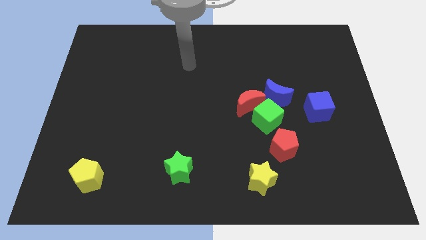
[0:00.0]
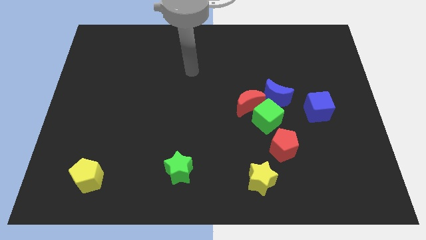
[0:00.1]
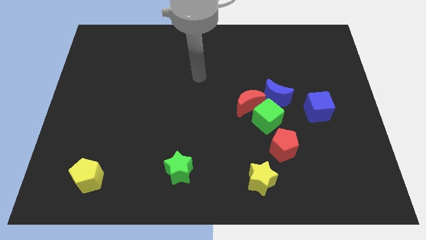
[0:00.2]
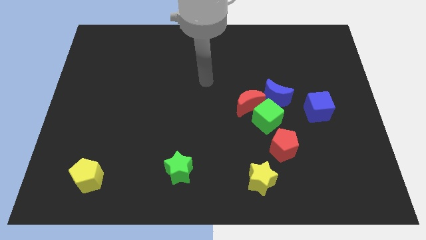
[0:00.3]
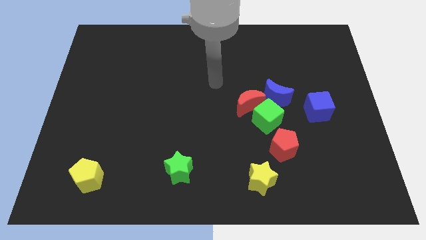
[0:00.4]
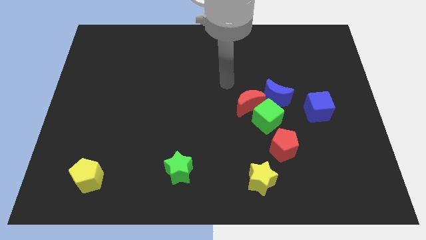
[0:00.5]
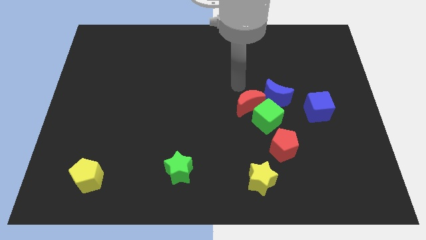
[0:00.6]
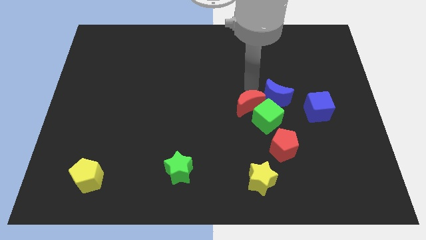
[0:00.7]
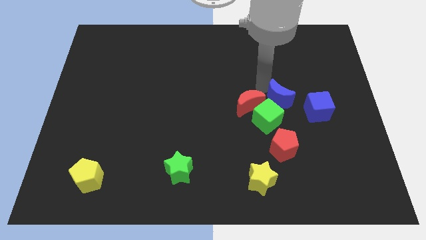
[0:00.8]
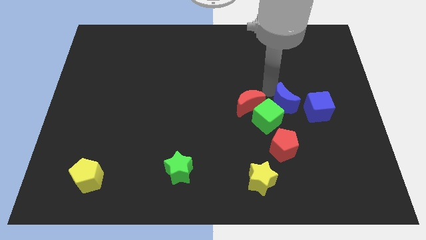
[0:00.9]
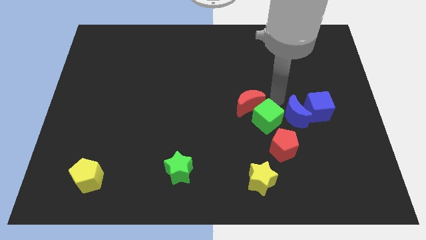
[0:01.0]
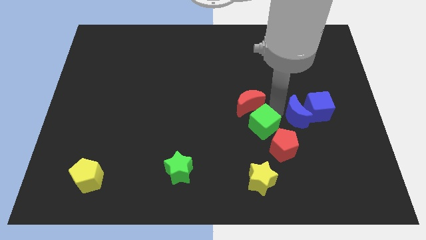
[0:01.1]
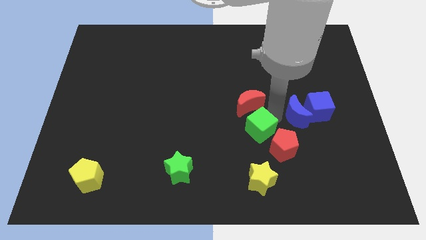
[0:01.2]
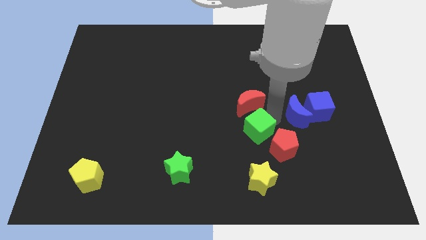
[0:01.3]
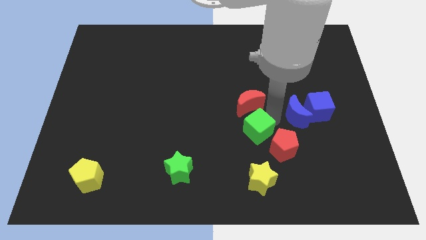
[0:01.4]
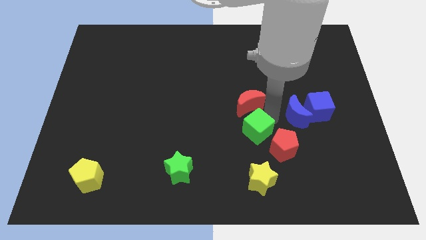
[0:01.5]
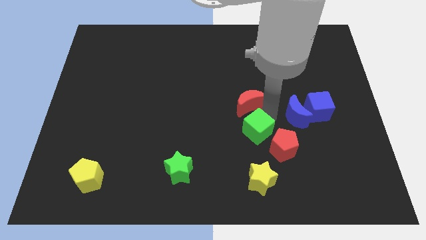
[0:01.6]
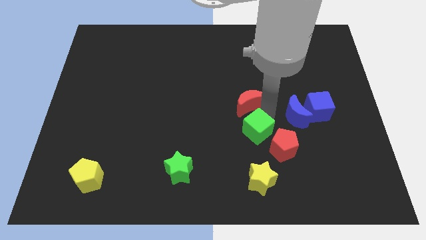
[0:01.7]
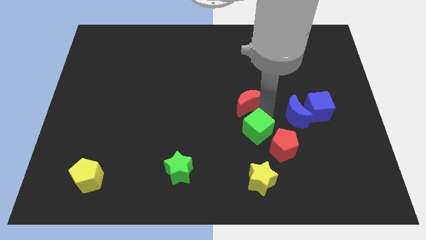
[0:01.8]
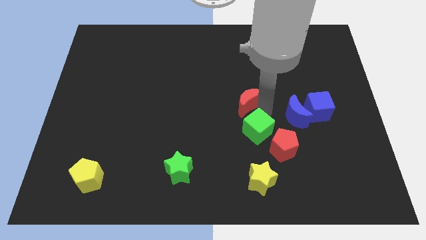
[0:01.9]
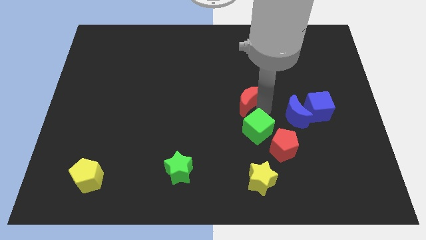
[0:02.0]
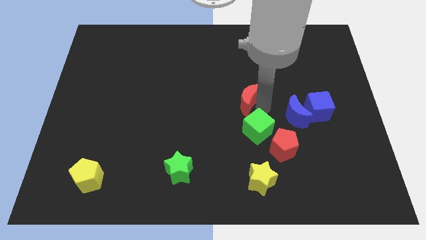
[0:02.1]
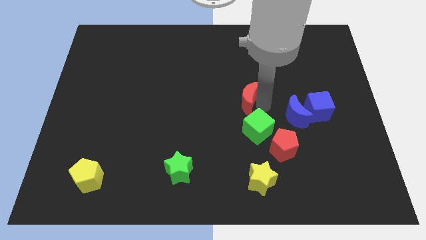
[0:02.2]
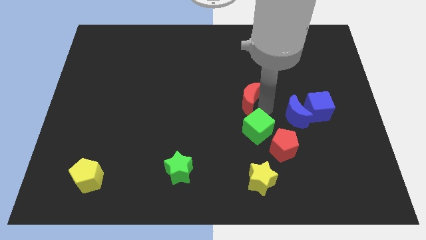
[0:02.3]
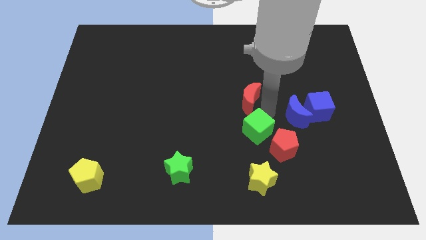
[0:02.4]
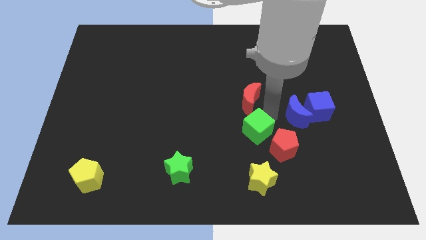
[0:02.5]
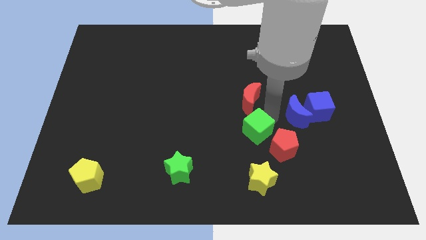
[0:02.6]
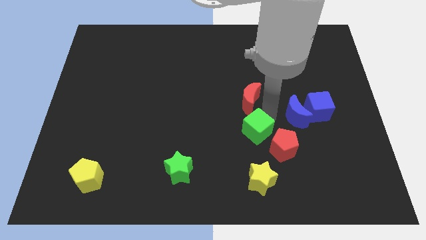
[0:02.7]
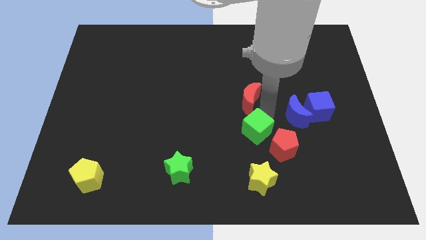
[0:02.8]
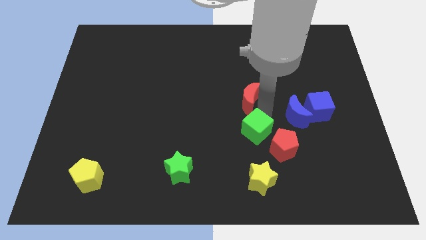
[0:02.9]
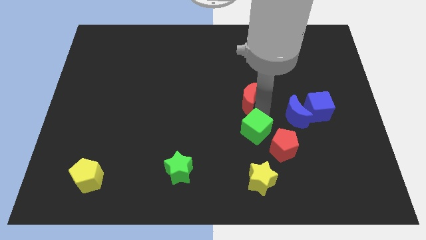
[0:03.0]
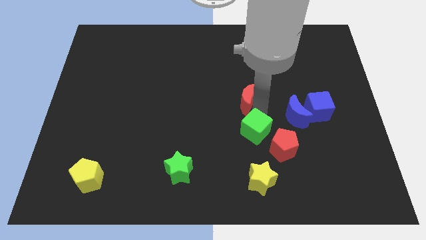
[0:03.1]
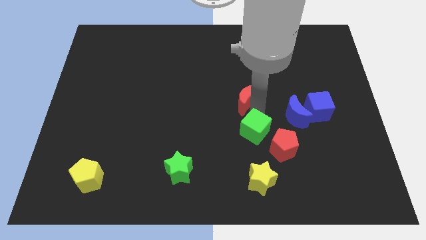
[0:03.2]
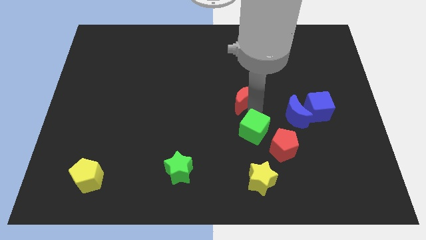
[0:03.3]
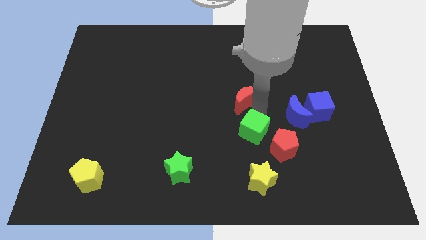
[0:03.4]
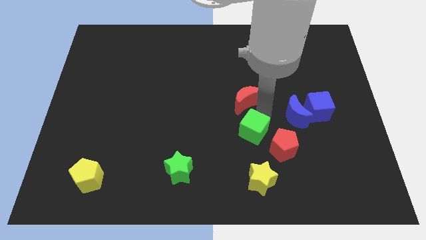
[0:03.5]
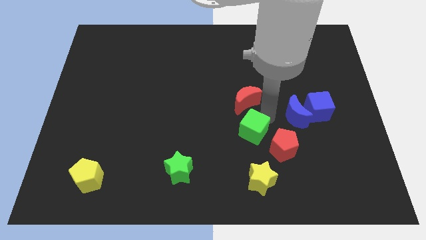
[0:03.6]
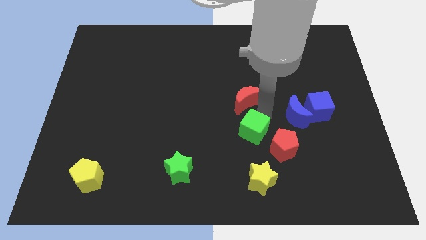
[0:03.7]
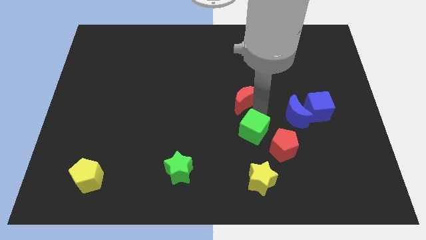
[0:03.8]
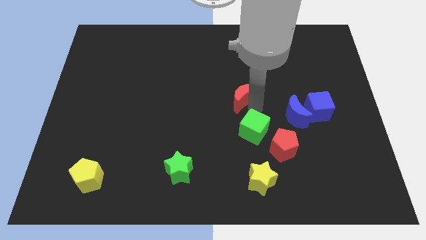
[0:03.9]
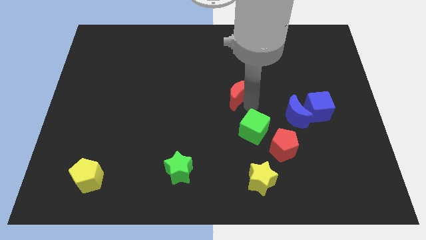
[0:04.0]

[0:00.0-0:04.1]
separate the red moon from the green cube and blue moon

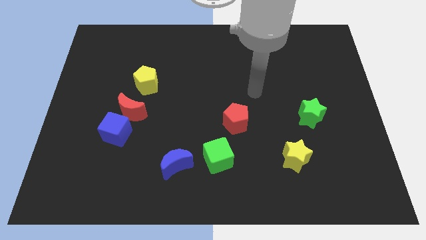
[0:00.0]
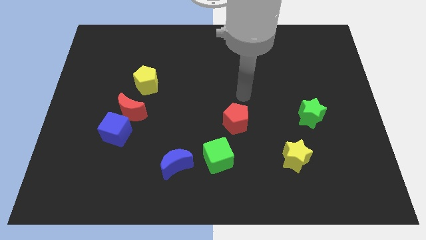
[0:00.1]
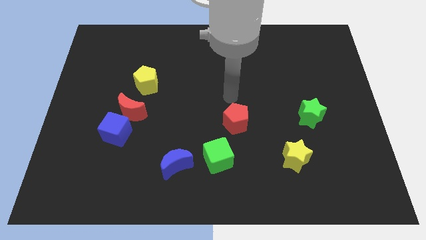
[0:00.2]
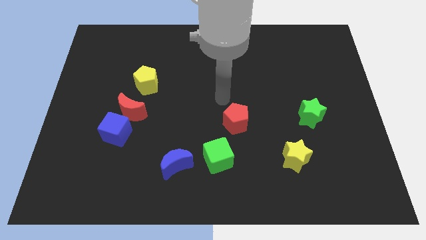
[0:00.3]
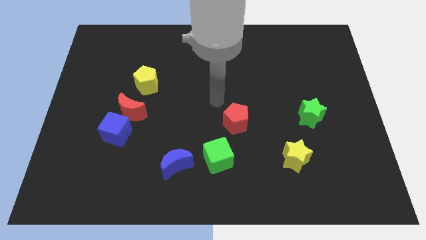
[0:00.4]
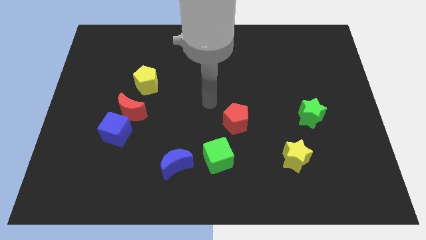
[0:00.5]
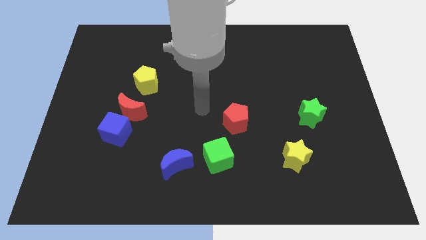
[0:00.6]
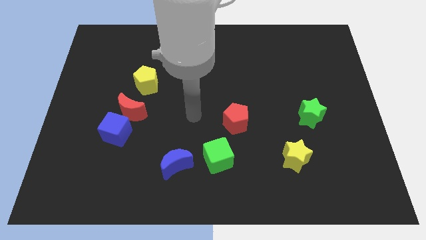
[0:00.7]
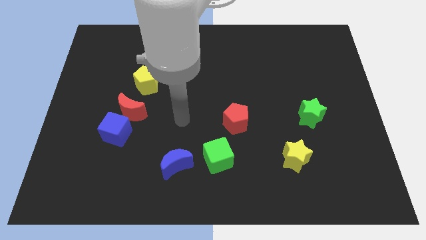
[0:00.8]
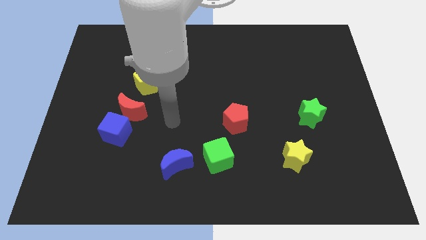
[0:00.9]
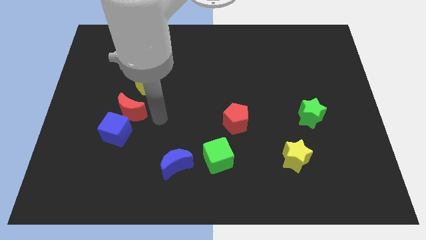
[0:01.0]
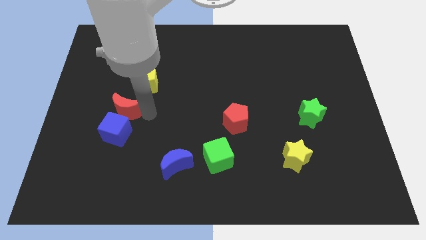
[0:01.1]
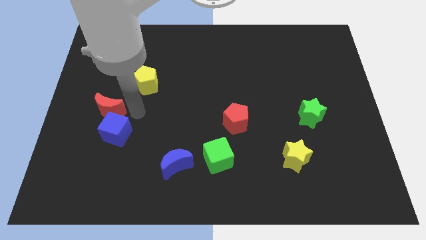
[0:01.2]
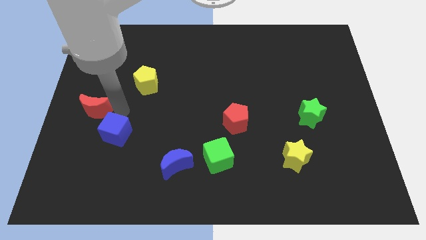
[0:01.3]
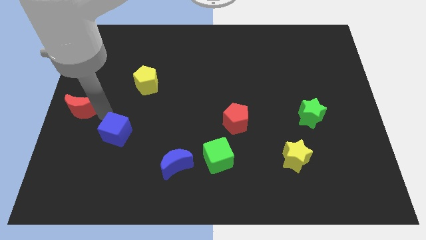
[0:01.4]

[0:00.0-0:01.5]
move the blue cube away from the red moon

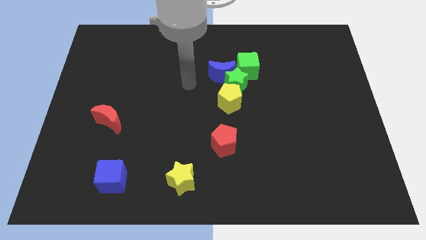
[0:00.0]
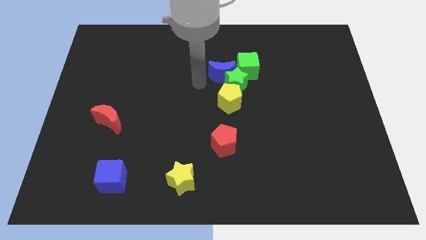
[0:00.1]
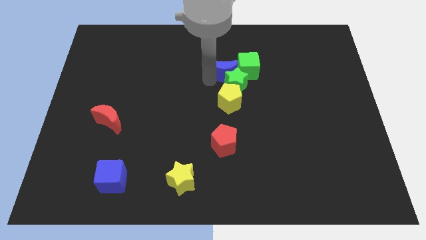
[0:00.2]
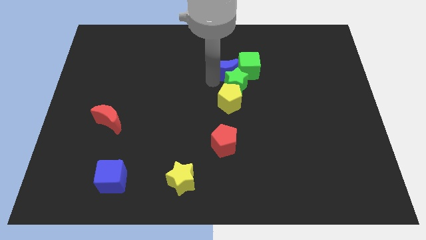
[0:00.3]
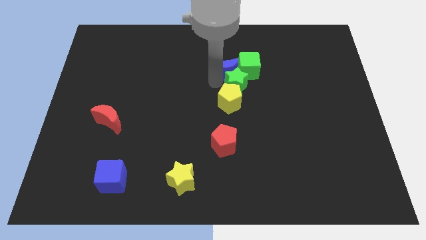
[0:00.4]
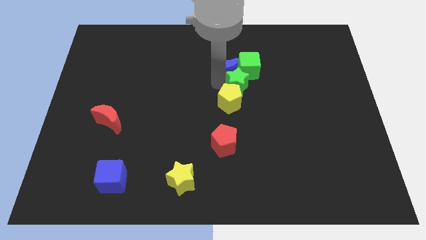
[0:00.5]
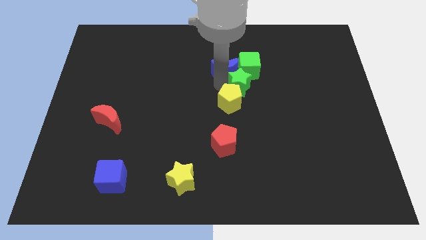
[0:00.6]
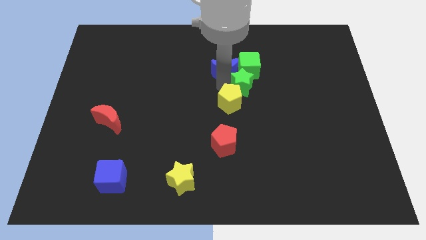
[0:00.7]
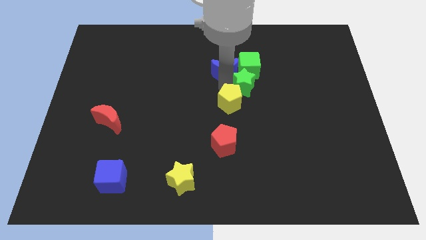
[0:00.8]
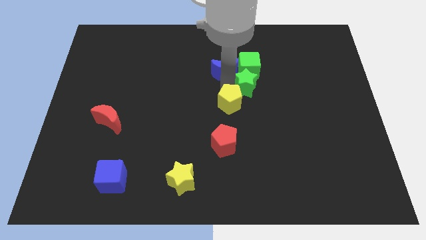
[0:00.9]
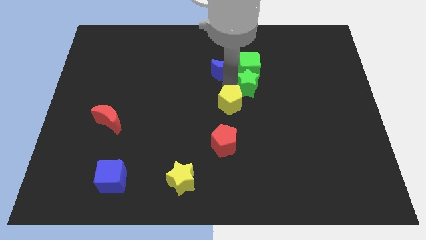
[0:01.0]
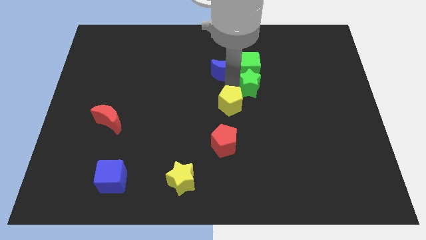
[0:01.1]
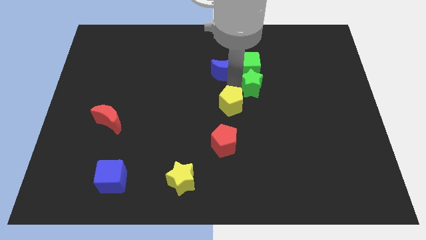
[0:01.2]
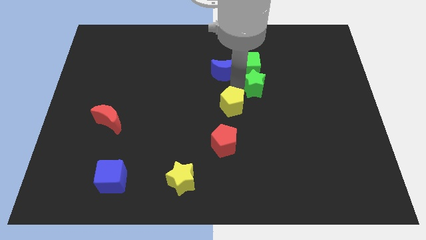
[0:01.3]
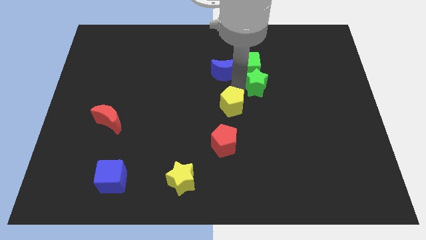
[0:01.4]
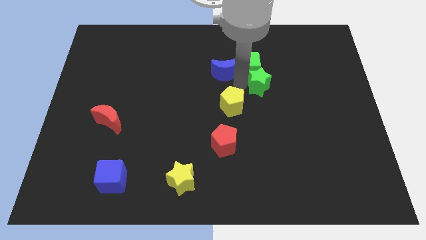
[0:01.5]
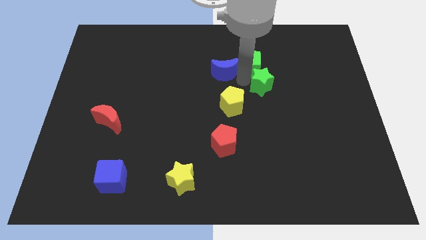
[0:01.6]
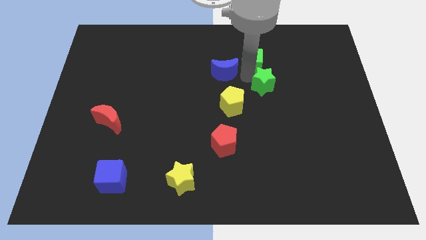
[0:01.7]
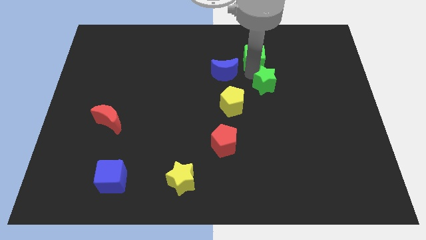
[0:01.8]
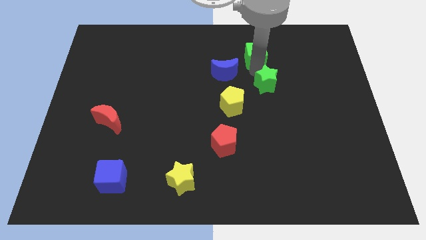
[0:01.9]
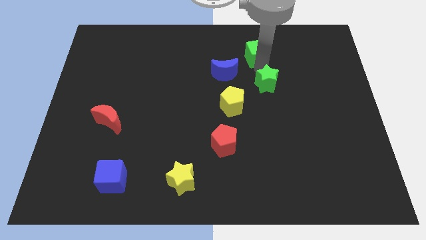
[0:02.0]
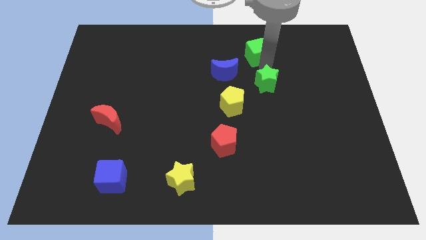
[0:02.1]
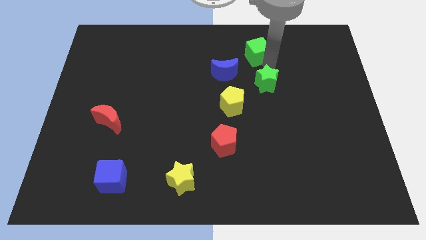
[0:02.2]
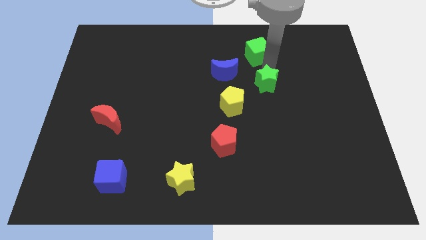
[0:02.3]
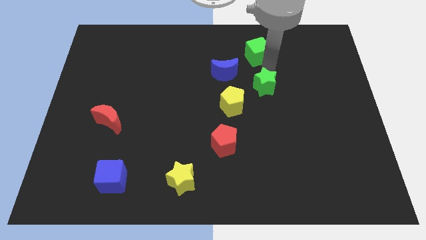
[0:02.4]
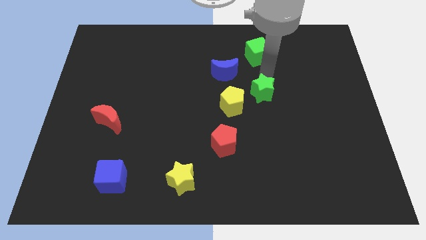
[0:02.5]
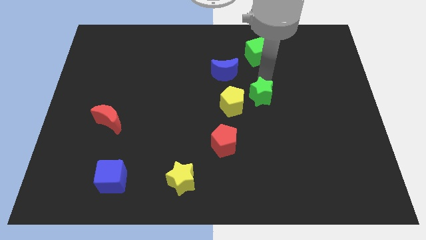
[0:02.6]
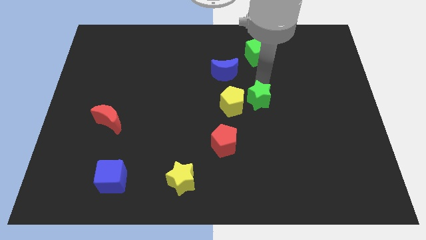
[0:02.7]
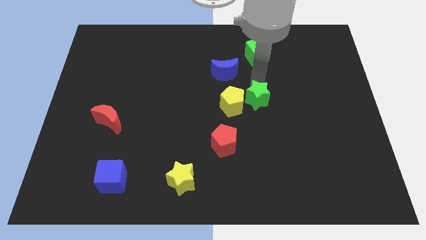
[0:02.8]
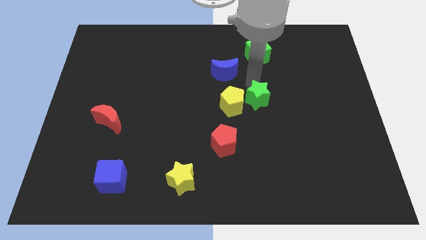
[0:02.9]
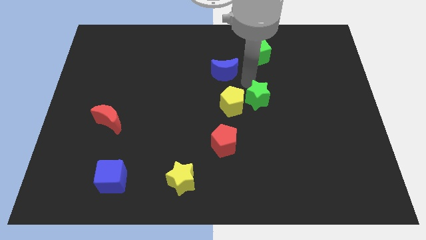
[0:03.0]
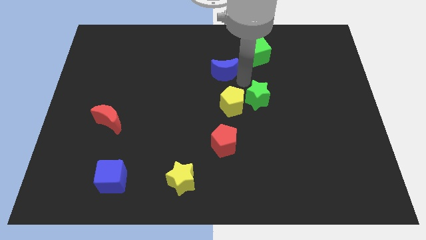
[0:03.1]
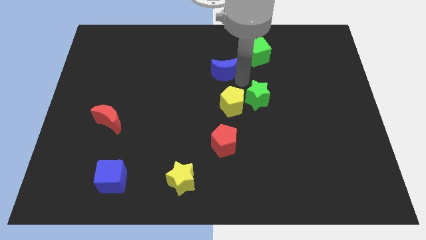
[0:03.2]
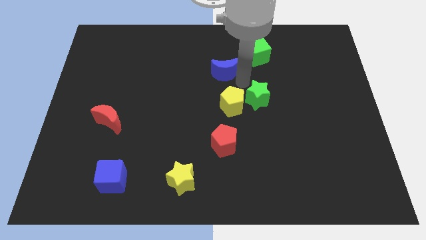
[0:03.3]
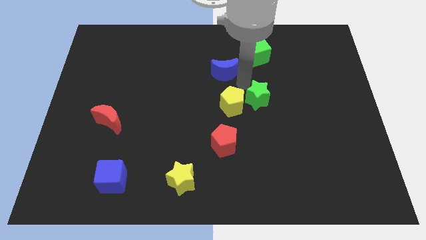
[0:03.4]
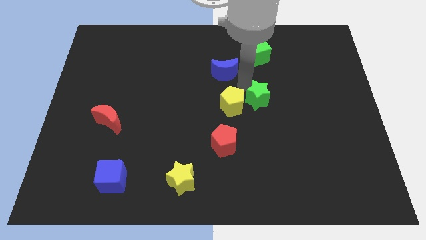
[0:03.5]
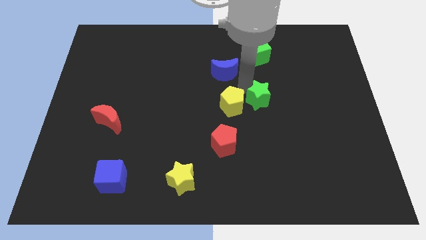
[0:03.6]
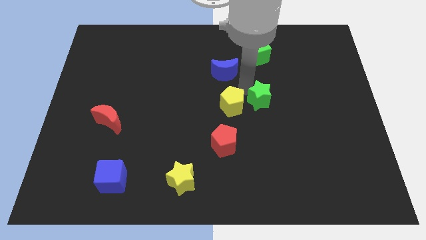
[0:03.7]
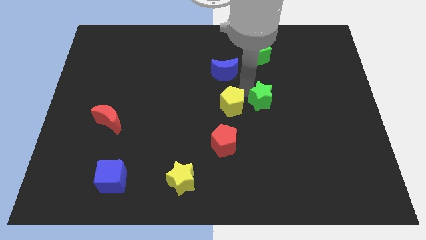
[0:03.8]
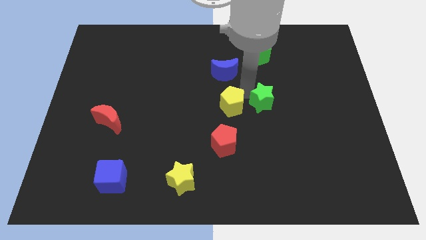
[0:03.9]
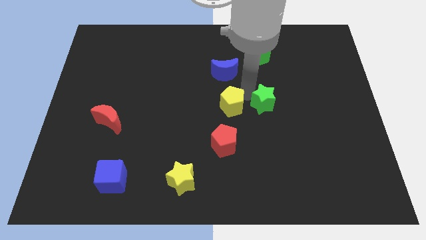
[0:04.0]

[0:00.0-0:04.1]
move the green star away from the blue moon, yellow pentagon, and green cube
